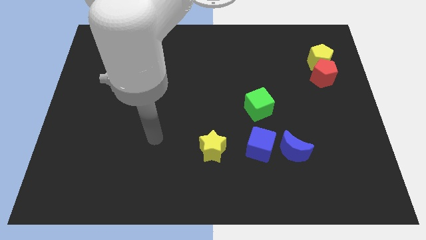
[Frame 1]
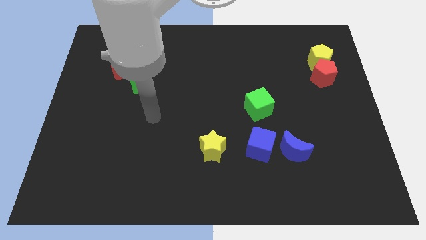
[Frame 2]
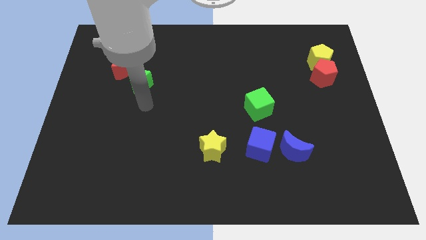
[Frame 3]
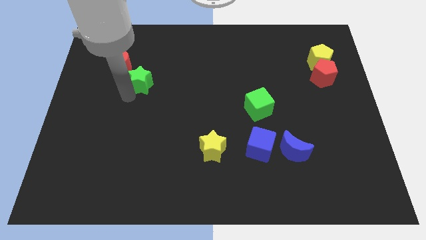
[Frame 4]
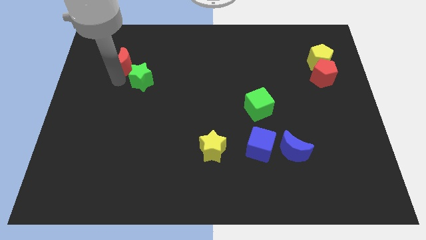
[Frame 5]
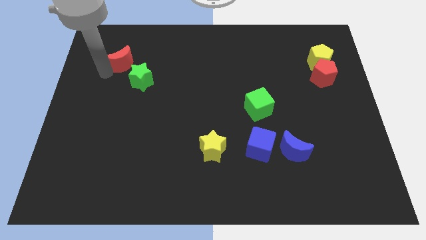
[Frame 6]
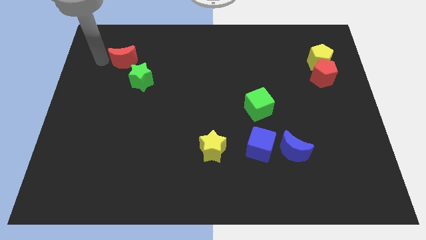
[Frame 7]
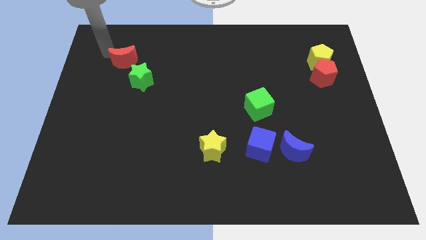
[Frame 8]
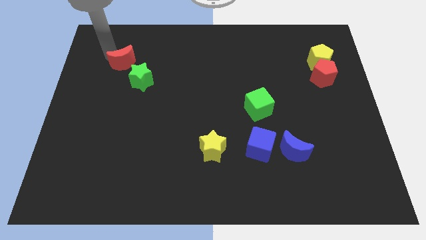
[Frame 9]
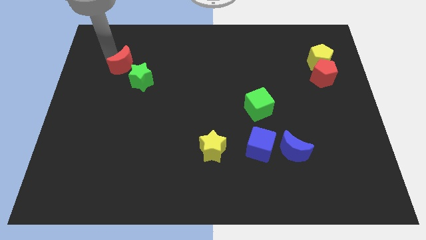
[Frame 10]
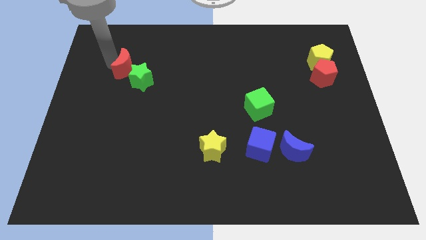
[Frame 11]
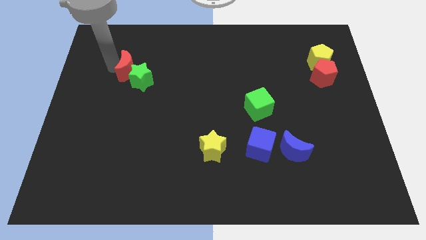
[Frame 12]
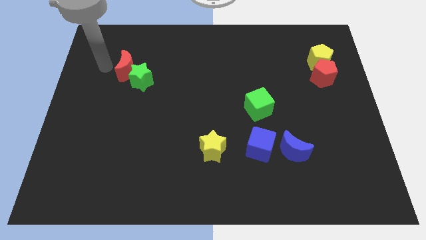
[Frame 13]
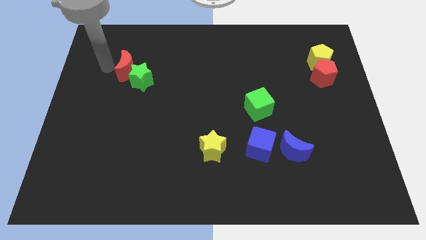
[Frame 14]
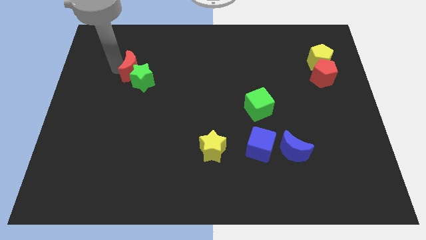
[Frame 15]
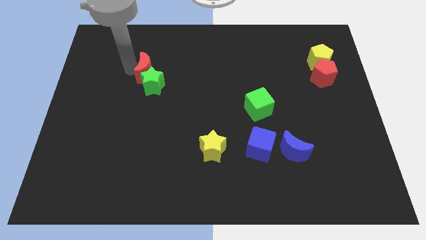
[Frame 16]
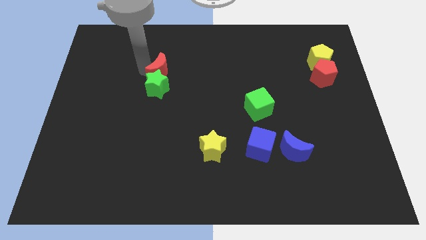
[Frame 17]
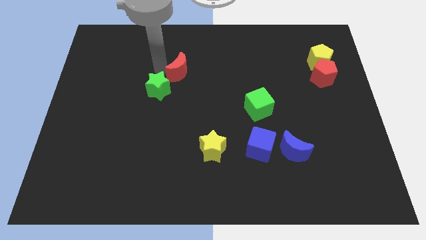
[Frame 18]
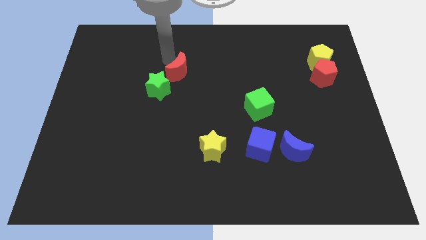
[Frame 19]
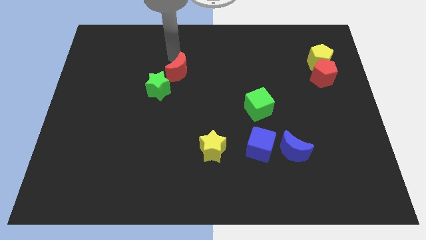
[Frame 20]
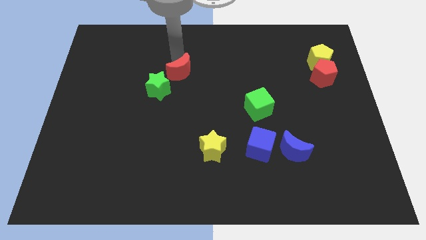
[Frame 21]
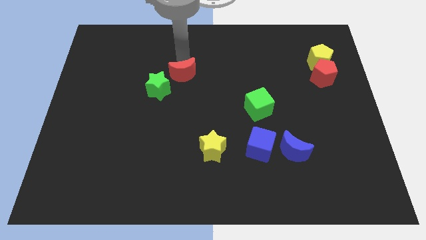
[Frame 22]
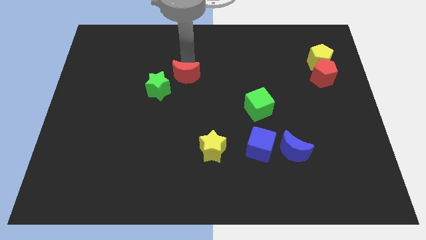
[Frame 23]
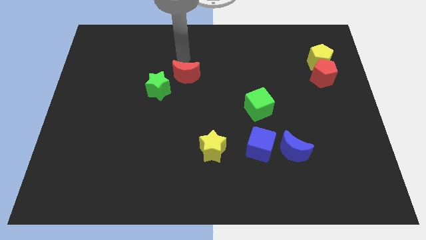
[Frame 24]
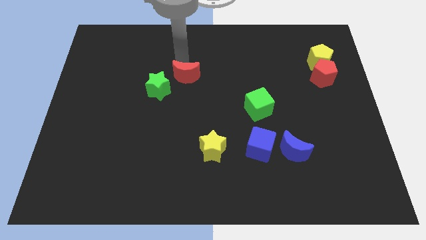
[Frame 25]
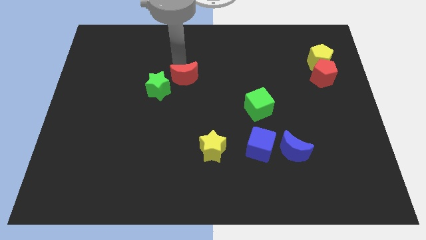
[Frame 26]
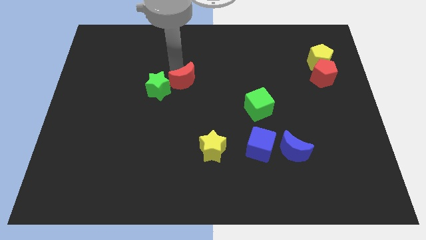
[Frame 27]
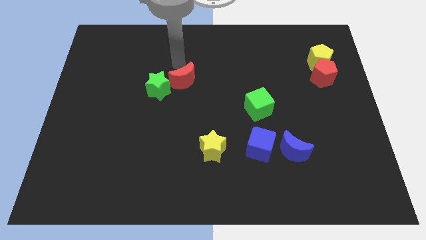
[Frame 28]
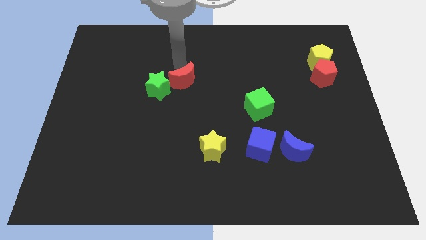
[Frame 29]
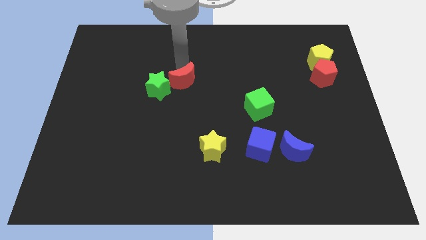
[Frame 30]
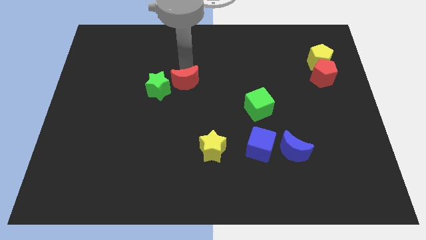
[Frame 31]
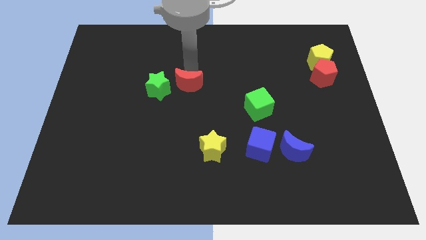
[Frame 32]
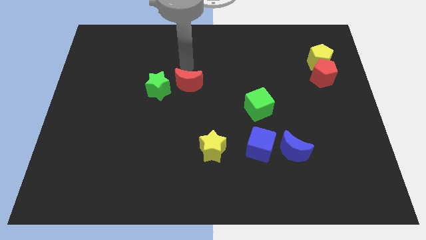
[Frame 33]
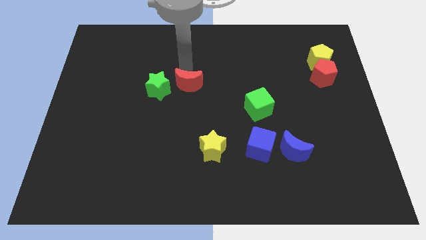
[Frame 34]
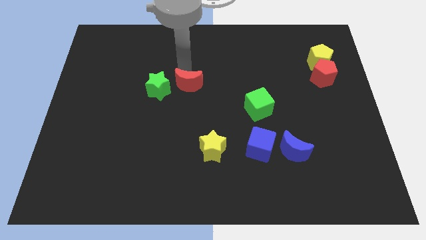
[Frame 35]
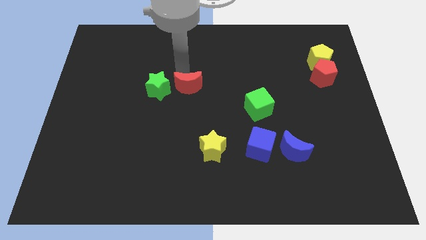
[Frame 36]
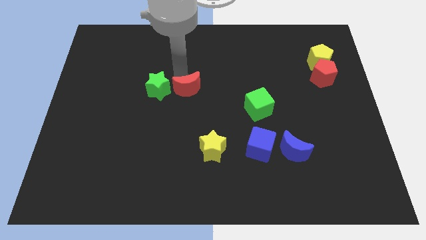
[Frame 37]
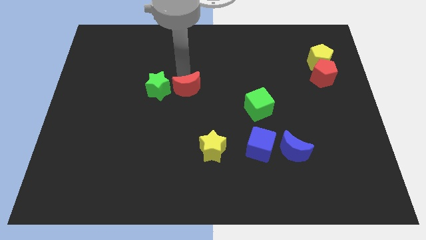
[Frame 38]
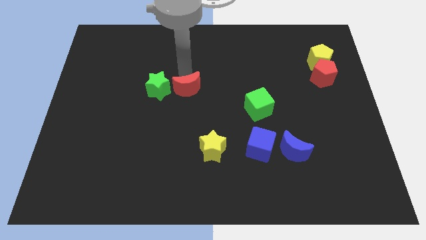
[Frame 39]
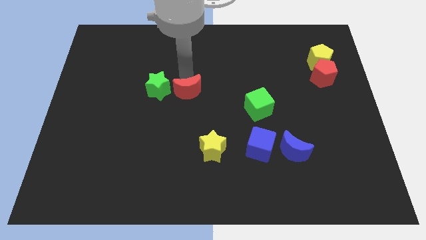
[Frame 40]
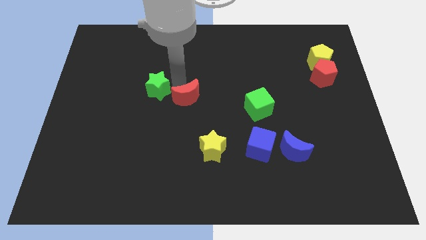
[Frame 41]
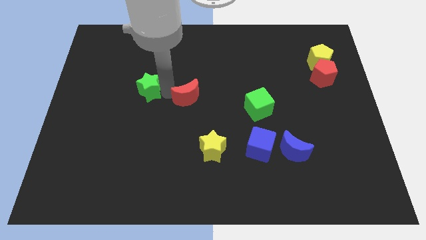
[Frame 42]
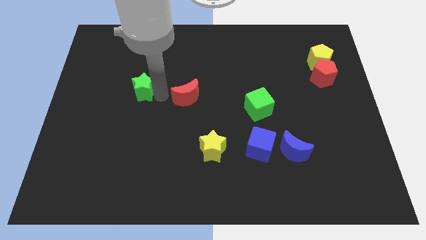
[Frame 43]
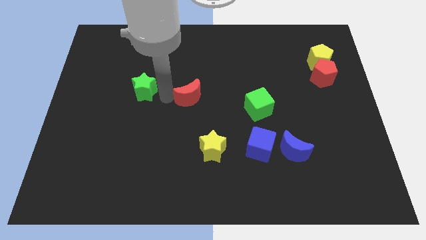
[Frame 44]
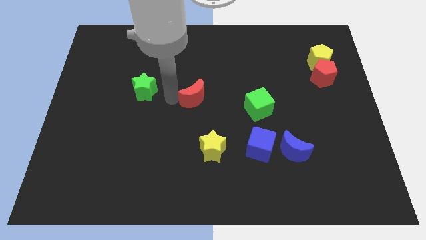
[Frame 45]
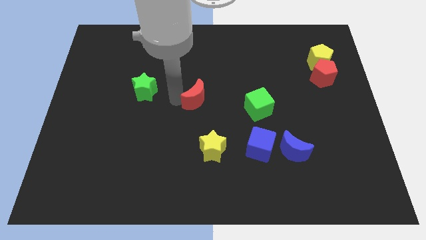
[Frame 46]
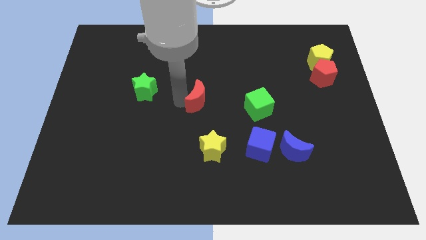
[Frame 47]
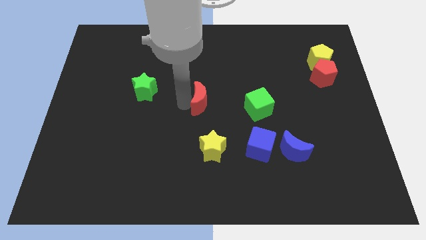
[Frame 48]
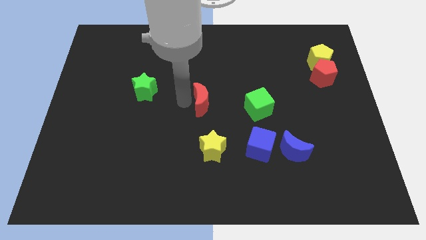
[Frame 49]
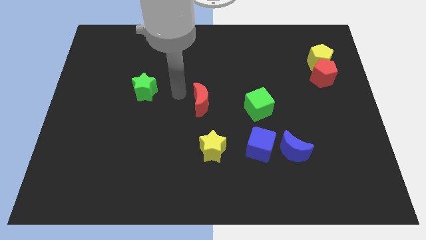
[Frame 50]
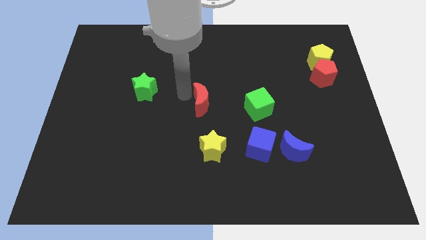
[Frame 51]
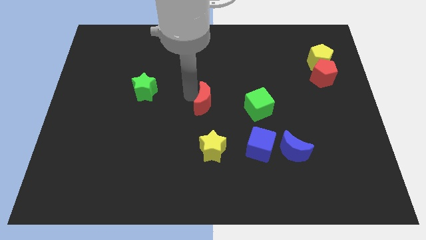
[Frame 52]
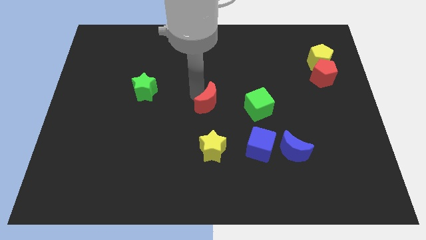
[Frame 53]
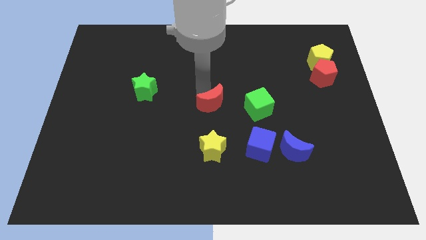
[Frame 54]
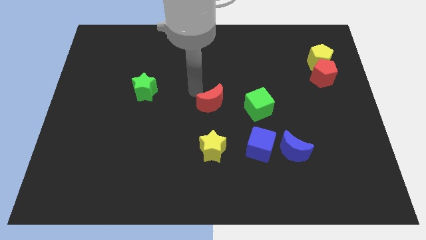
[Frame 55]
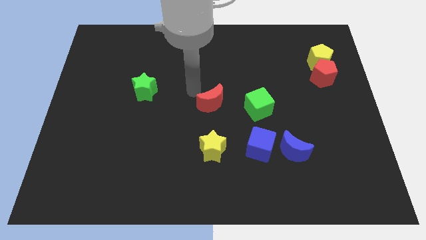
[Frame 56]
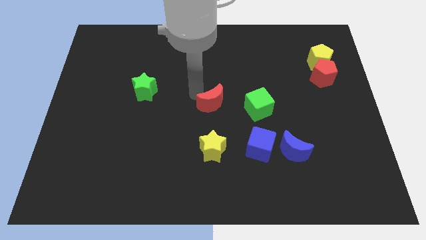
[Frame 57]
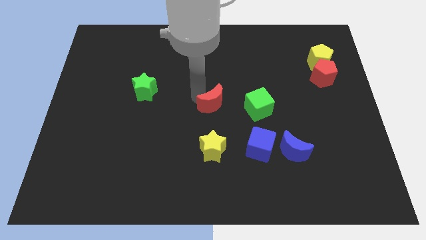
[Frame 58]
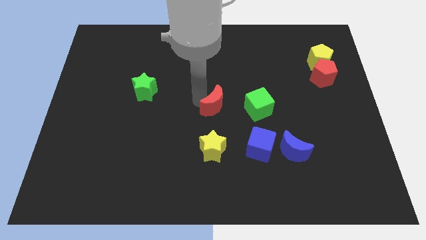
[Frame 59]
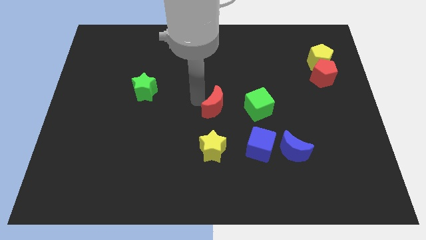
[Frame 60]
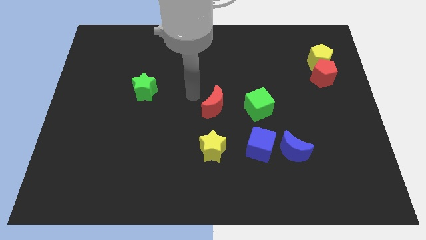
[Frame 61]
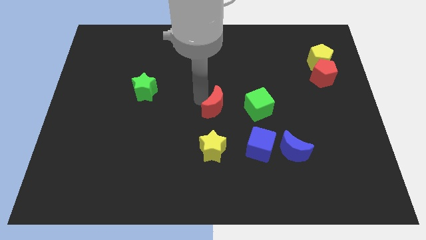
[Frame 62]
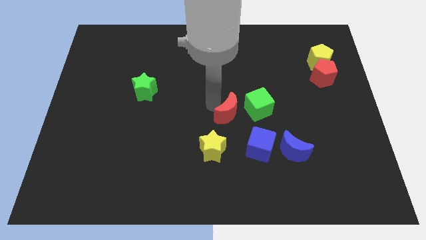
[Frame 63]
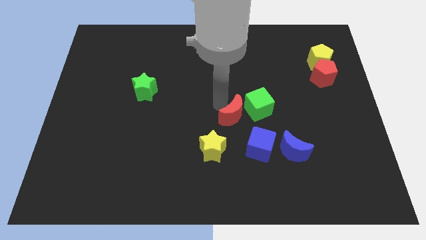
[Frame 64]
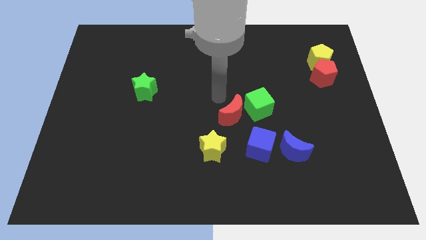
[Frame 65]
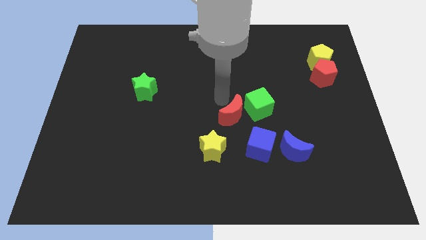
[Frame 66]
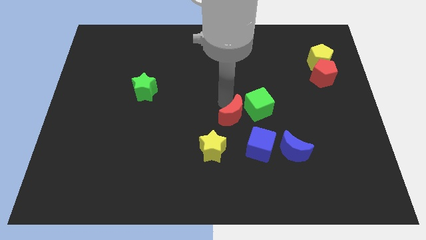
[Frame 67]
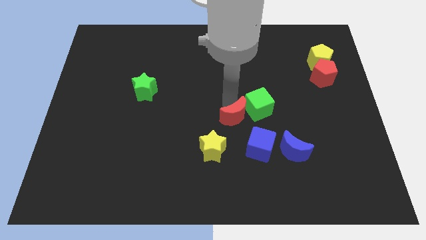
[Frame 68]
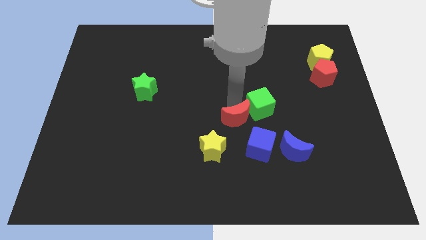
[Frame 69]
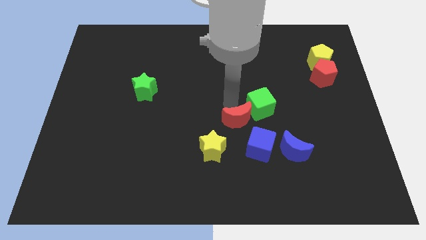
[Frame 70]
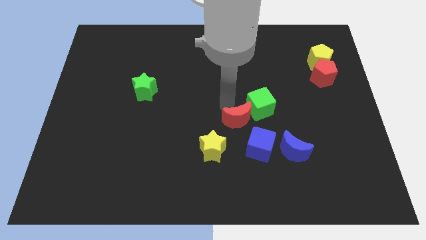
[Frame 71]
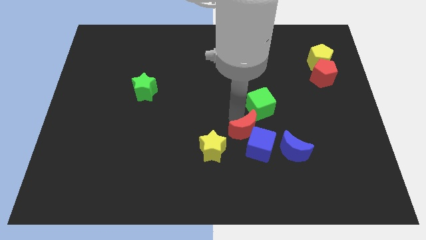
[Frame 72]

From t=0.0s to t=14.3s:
put the red moon to the blue cube

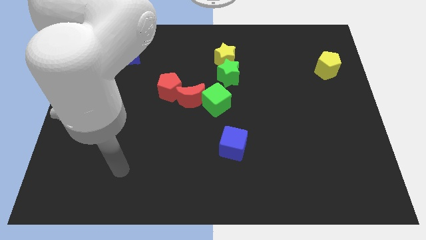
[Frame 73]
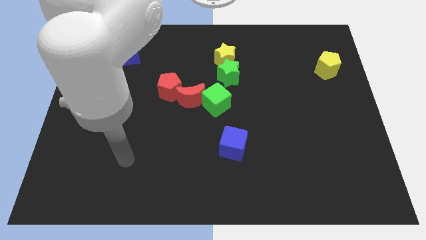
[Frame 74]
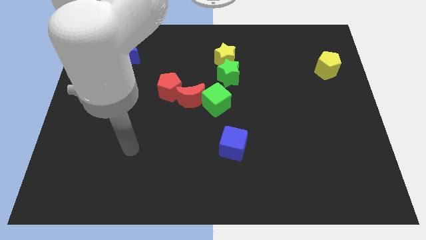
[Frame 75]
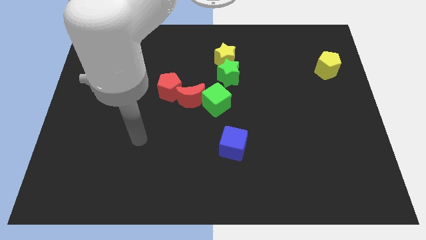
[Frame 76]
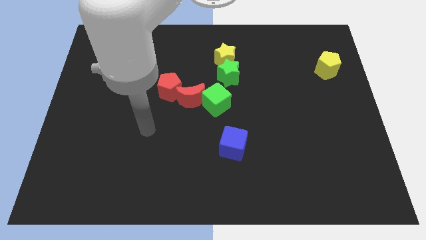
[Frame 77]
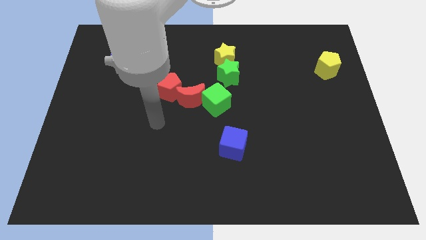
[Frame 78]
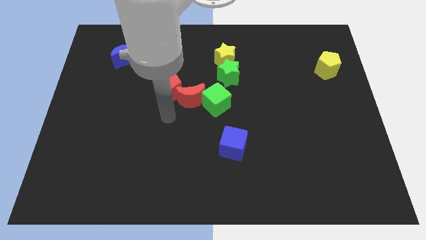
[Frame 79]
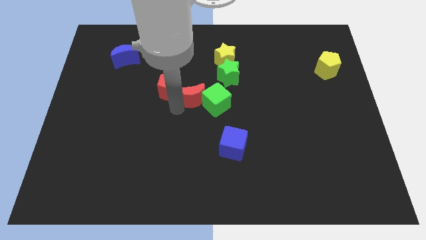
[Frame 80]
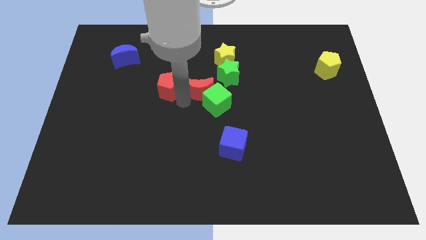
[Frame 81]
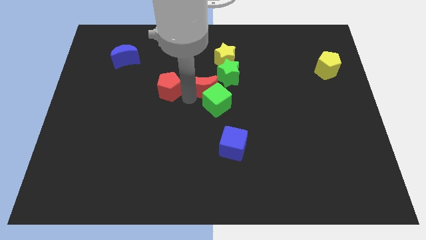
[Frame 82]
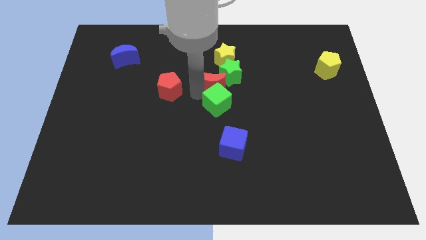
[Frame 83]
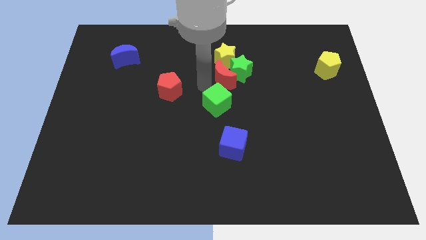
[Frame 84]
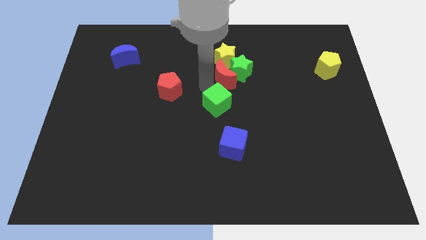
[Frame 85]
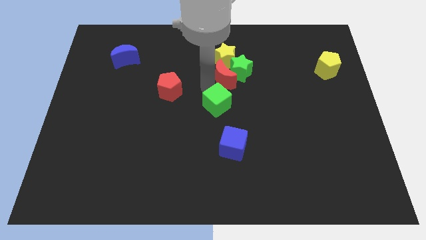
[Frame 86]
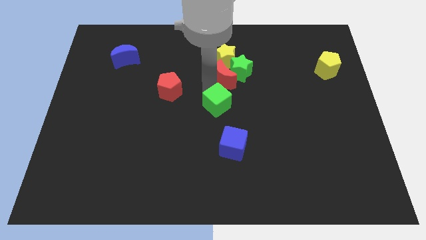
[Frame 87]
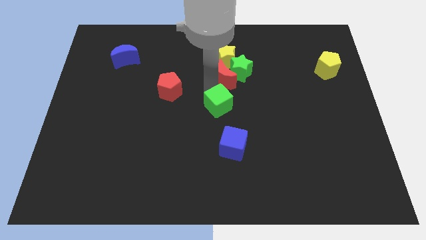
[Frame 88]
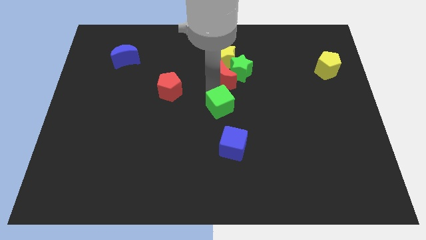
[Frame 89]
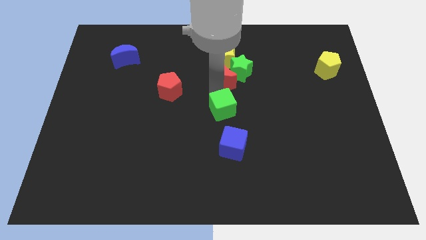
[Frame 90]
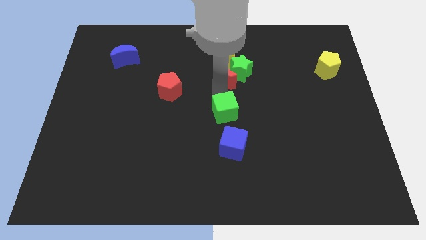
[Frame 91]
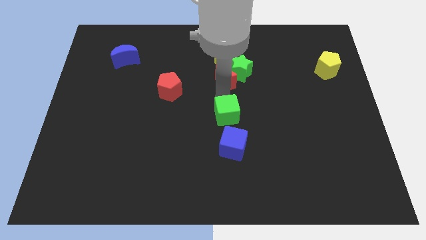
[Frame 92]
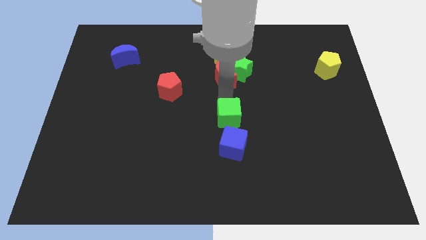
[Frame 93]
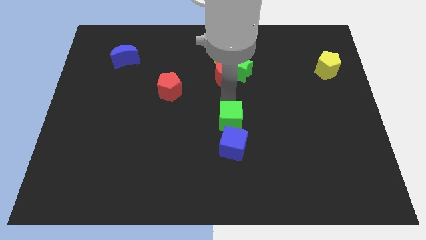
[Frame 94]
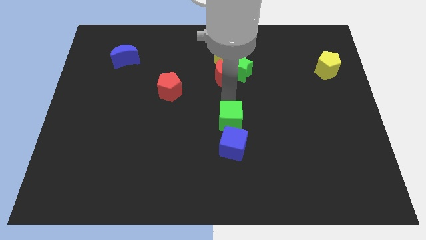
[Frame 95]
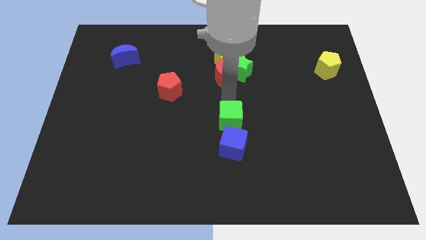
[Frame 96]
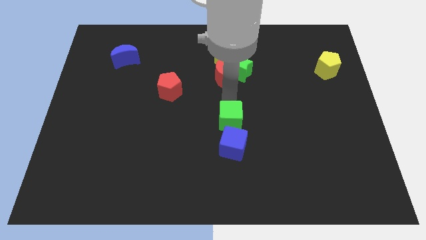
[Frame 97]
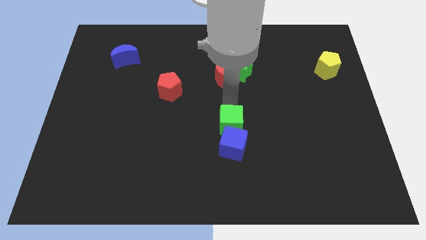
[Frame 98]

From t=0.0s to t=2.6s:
push the green cube next to the blue cube
